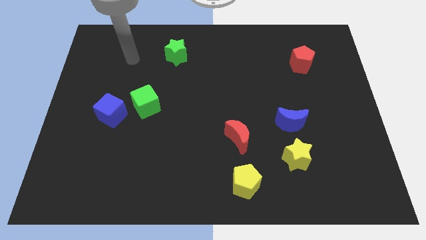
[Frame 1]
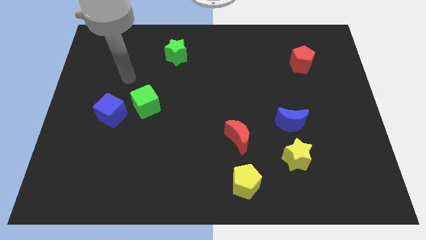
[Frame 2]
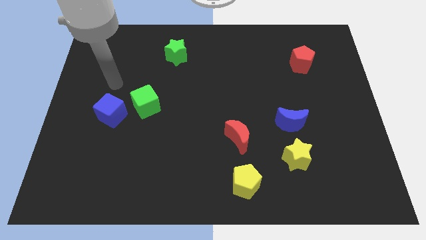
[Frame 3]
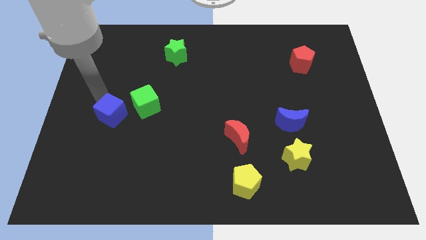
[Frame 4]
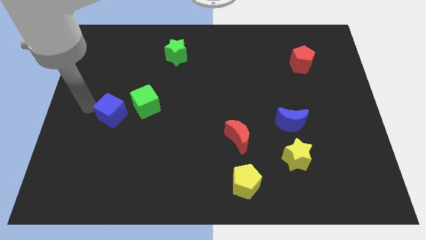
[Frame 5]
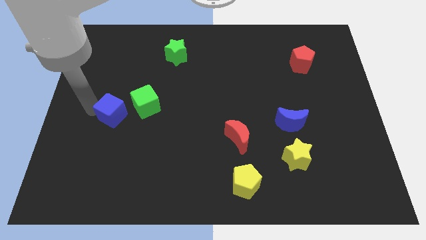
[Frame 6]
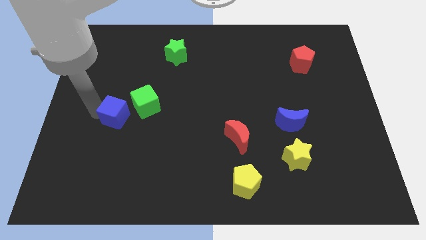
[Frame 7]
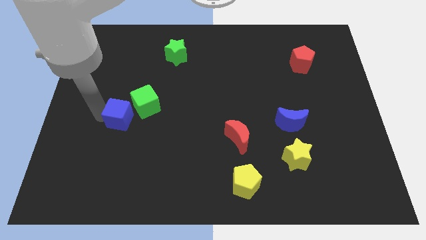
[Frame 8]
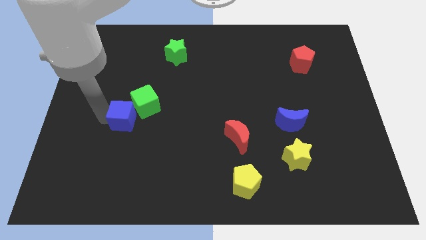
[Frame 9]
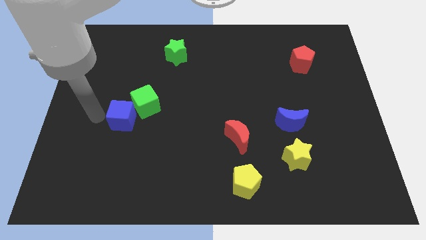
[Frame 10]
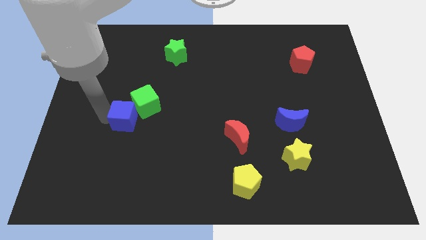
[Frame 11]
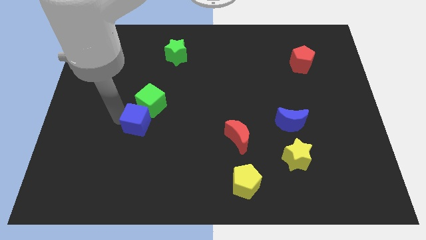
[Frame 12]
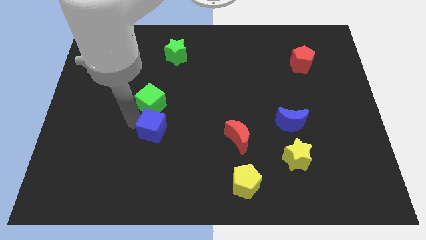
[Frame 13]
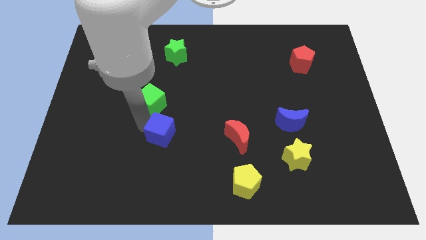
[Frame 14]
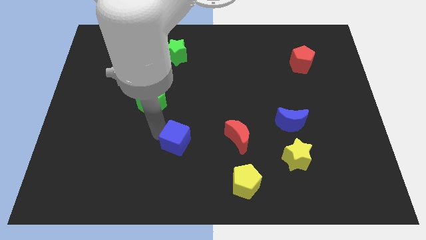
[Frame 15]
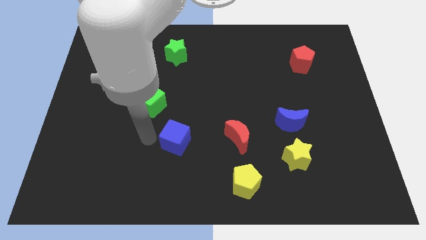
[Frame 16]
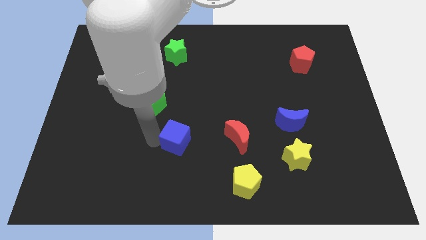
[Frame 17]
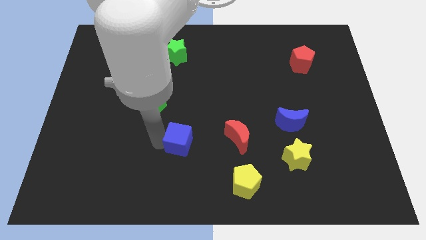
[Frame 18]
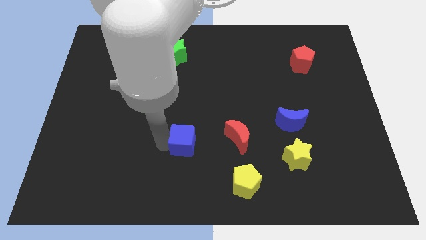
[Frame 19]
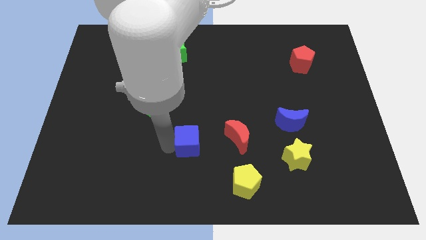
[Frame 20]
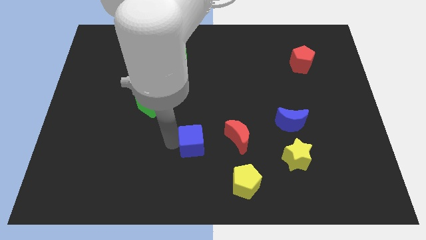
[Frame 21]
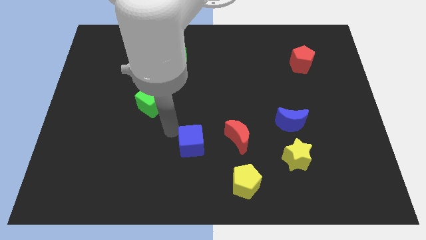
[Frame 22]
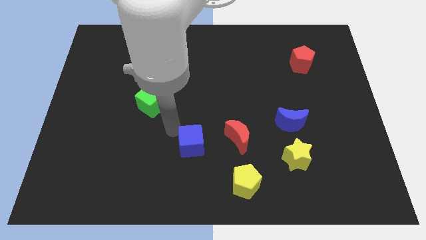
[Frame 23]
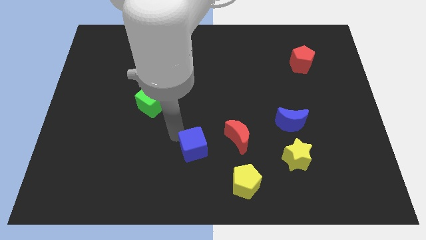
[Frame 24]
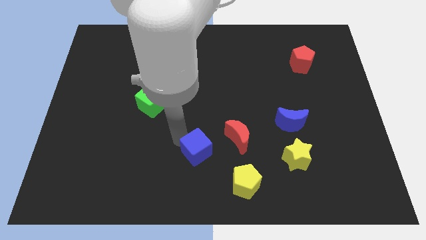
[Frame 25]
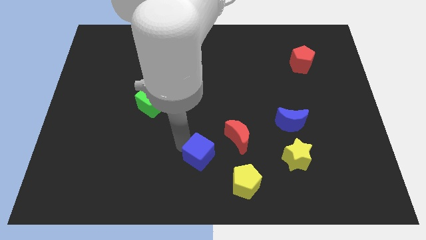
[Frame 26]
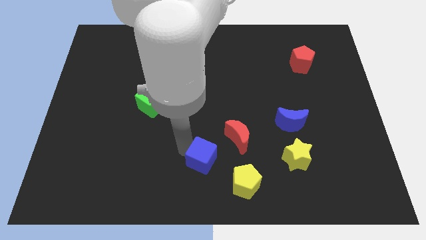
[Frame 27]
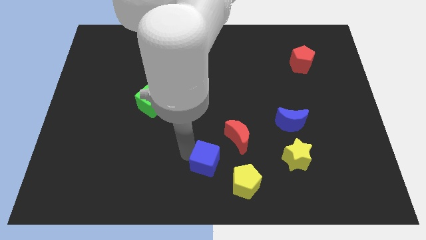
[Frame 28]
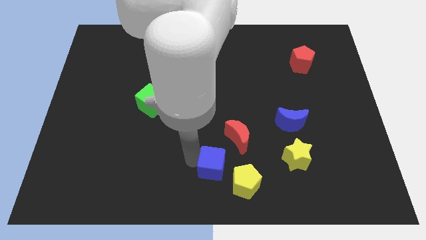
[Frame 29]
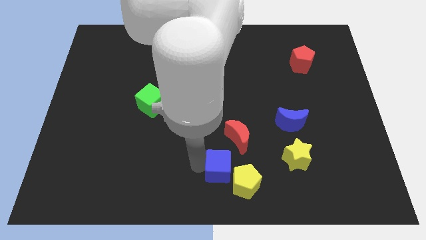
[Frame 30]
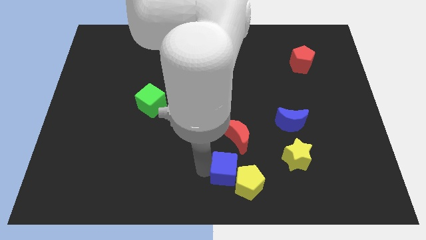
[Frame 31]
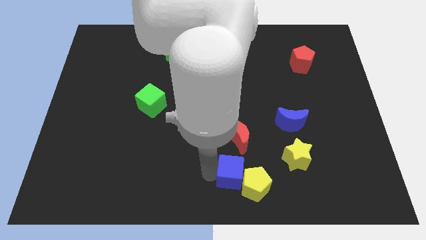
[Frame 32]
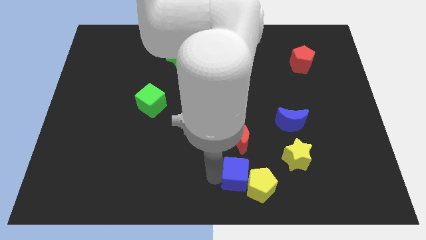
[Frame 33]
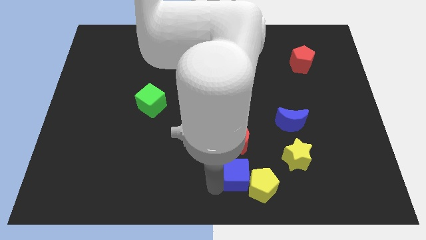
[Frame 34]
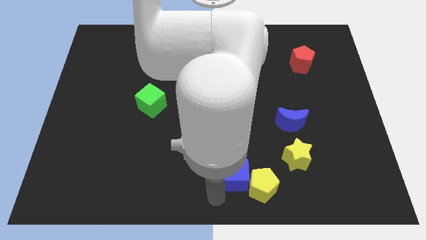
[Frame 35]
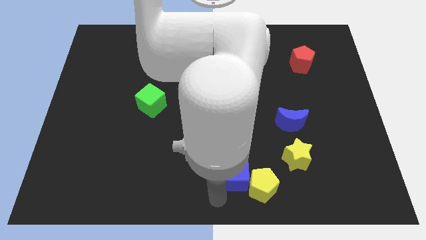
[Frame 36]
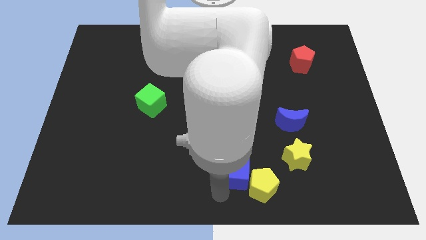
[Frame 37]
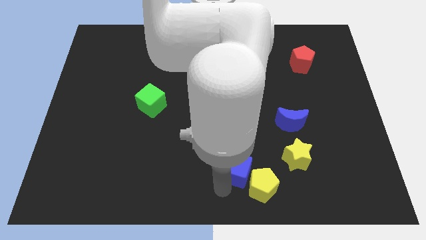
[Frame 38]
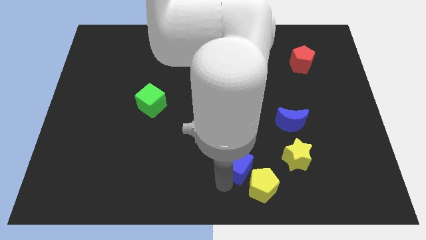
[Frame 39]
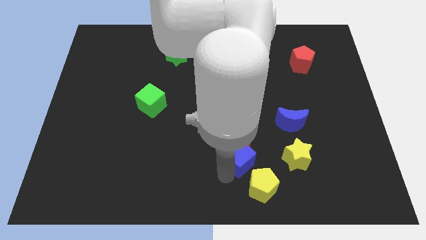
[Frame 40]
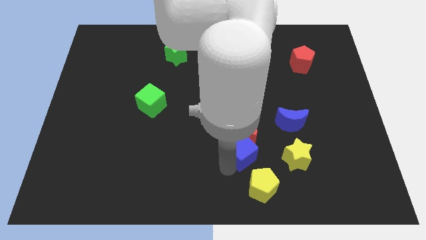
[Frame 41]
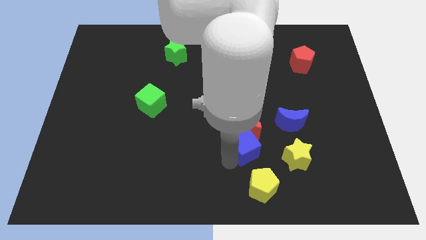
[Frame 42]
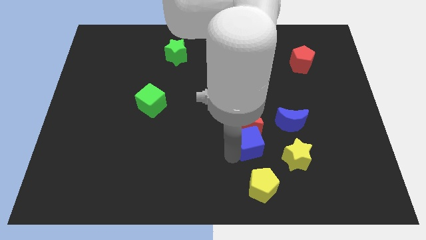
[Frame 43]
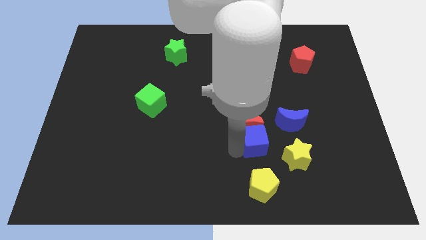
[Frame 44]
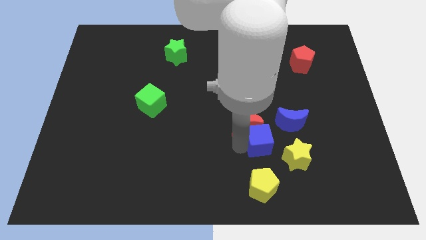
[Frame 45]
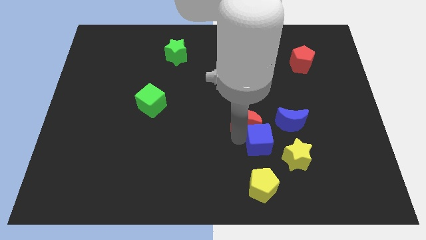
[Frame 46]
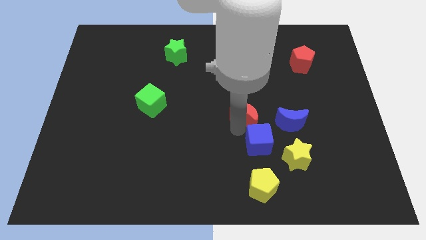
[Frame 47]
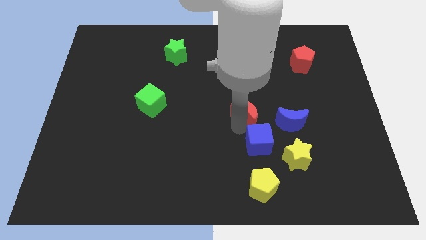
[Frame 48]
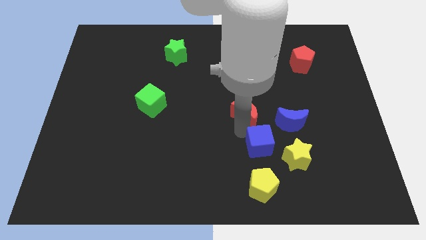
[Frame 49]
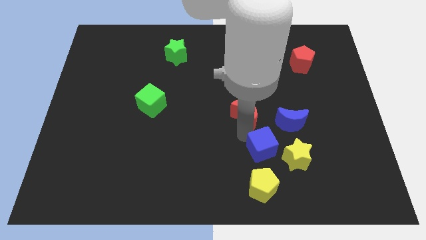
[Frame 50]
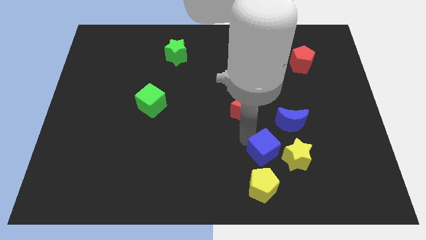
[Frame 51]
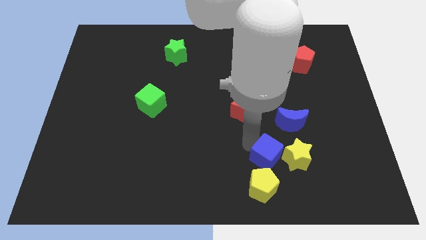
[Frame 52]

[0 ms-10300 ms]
move the blue cube towards the yellow star

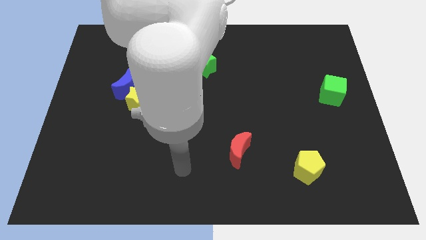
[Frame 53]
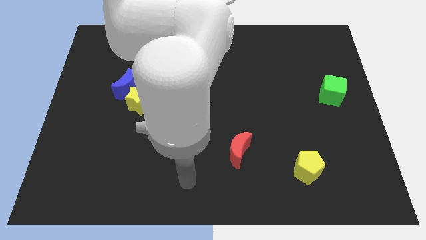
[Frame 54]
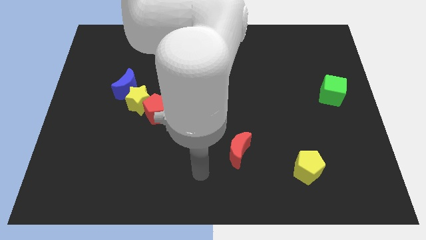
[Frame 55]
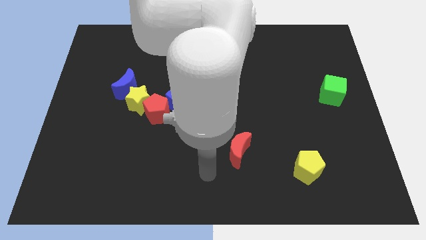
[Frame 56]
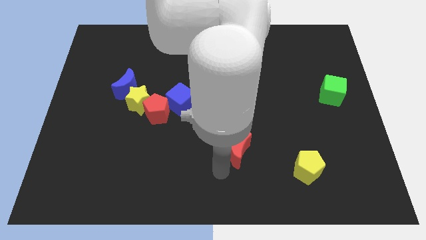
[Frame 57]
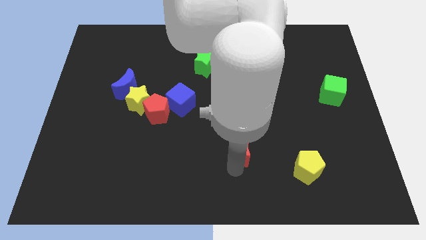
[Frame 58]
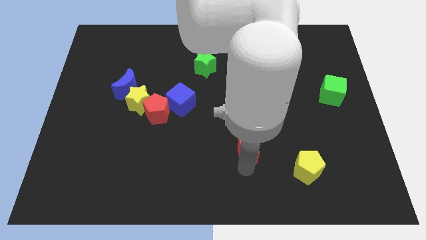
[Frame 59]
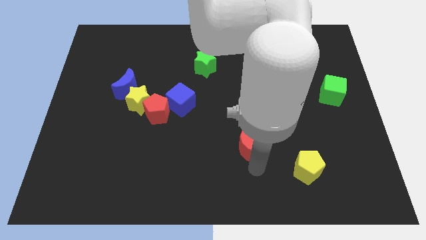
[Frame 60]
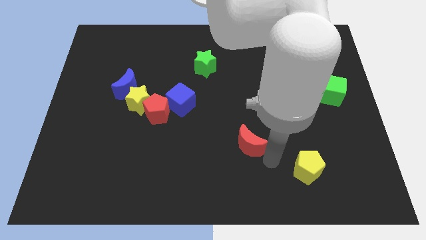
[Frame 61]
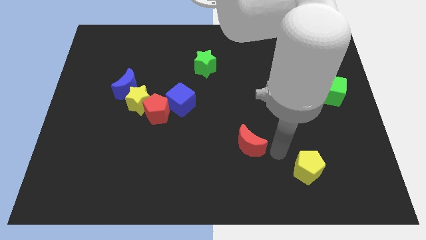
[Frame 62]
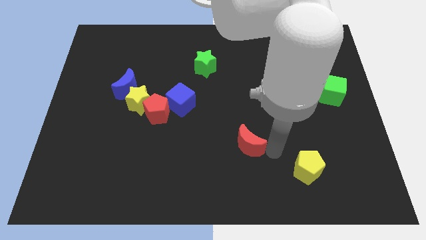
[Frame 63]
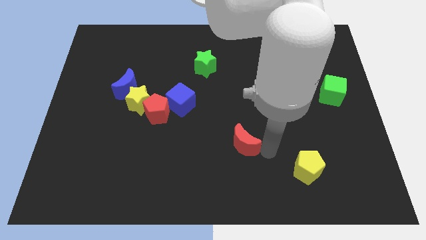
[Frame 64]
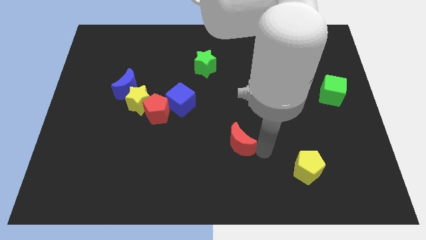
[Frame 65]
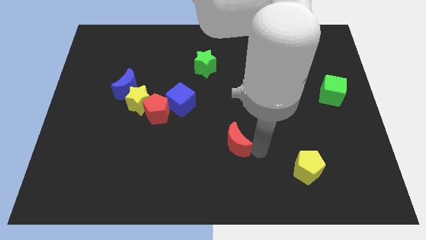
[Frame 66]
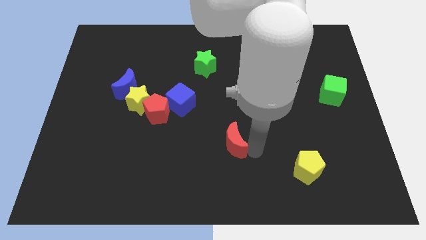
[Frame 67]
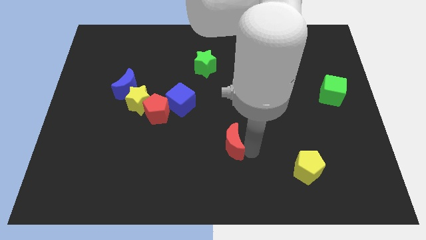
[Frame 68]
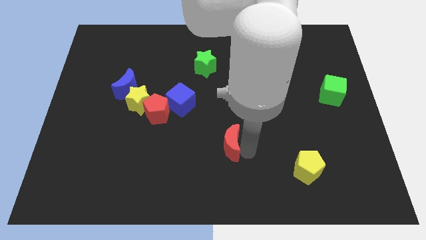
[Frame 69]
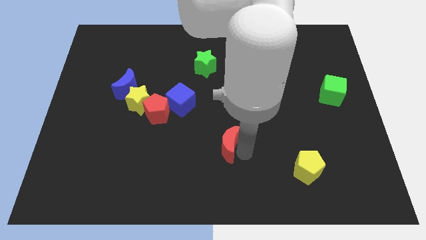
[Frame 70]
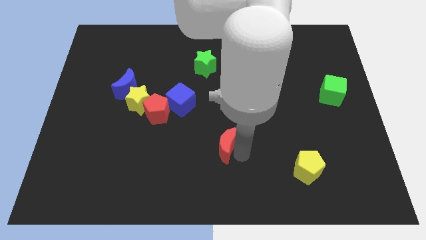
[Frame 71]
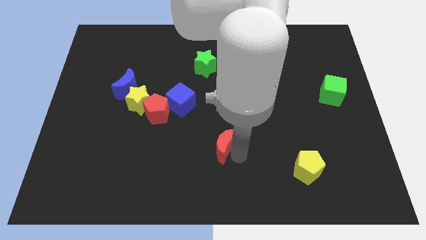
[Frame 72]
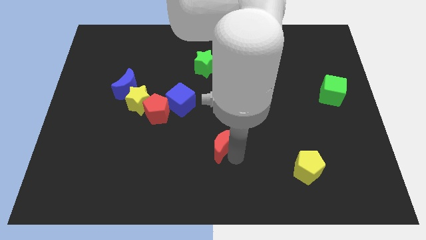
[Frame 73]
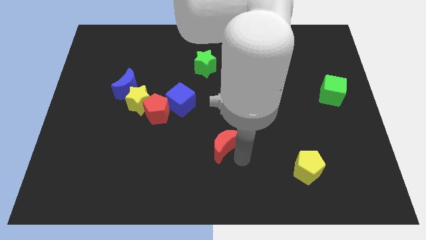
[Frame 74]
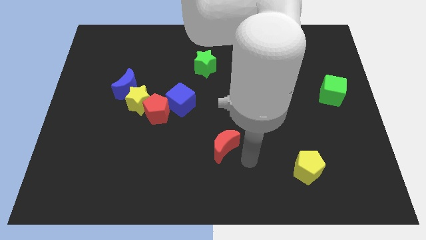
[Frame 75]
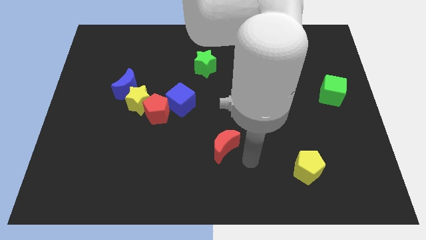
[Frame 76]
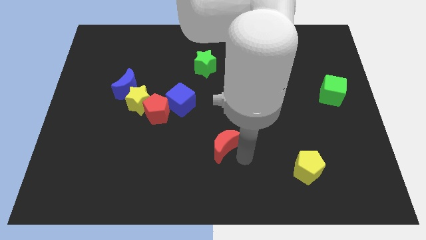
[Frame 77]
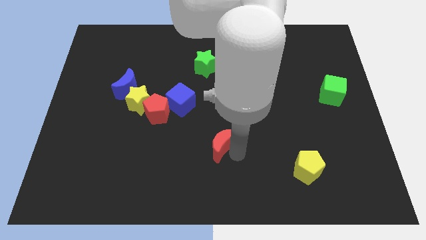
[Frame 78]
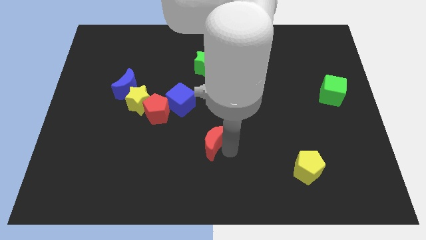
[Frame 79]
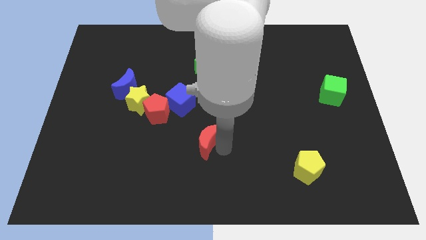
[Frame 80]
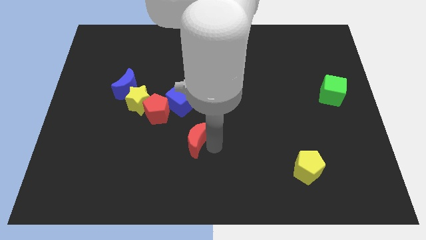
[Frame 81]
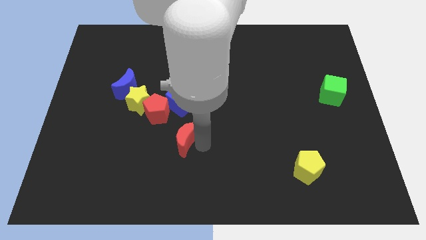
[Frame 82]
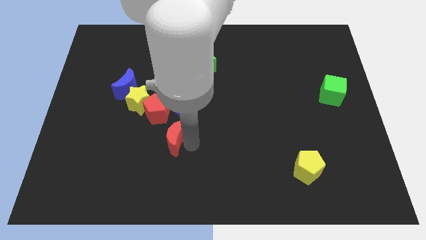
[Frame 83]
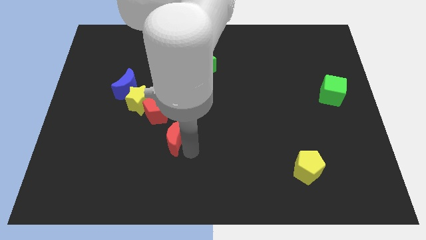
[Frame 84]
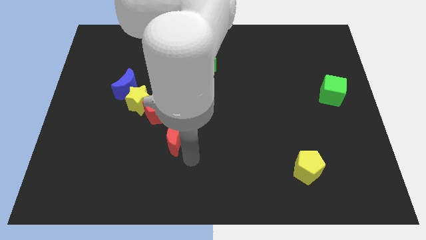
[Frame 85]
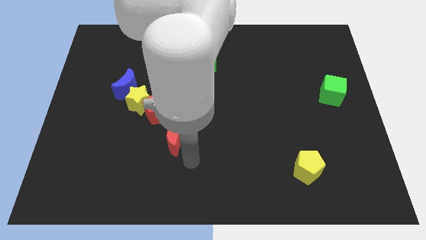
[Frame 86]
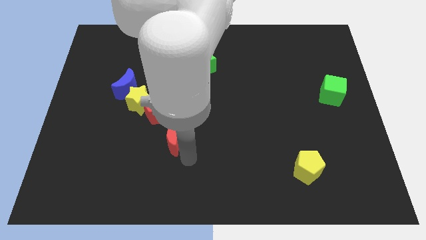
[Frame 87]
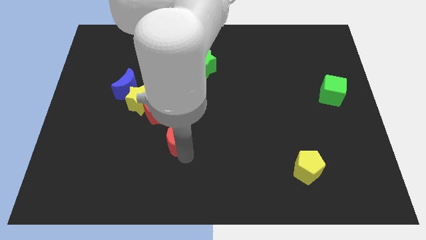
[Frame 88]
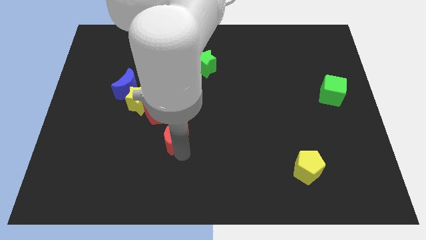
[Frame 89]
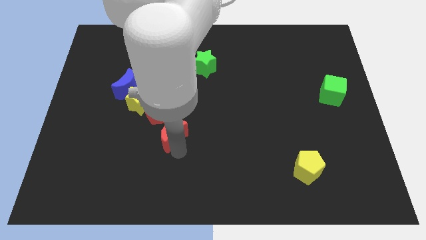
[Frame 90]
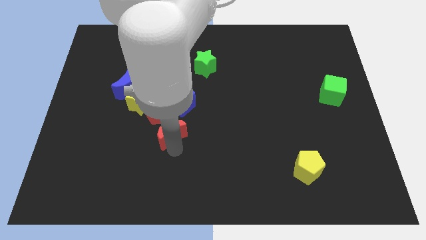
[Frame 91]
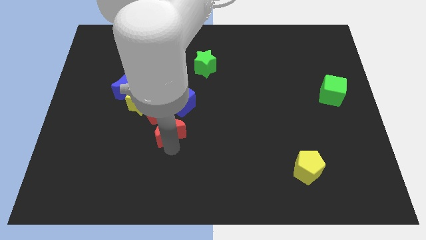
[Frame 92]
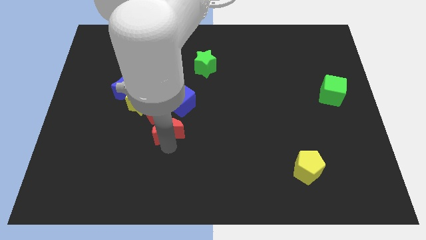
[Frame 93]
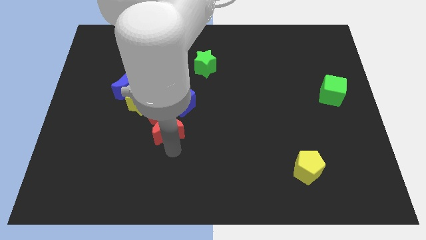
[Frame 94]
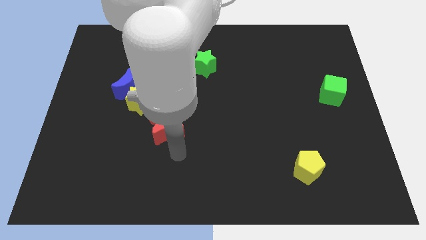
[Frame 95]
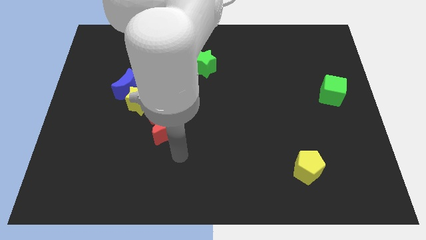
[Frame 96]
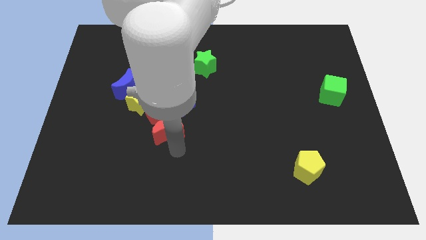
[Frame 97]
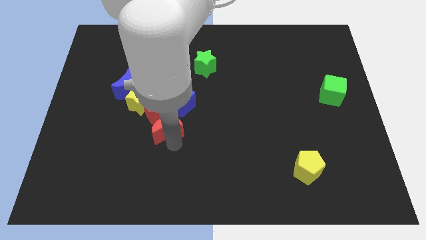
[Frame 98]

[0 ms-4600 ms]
put the red moon to the red pentagon
